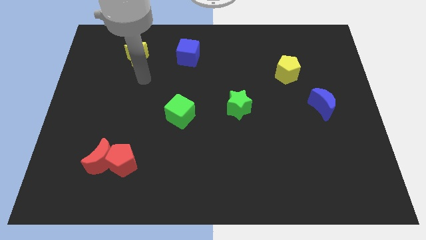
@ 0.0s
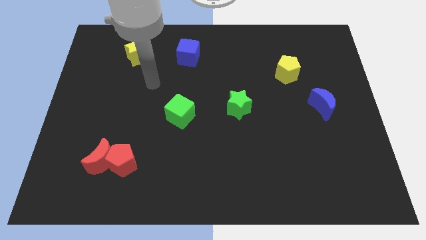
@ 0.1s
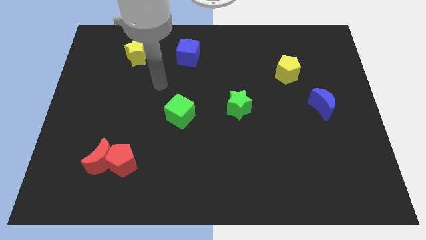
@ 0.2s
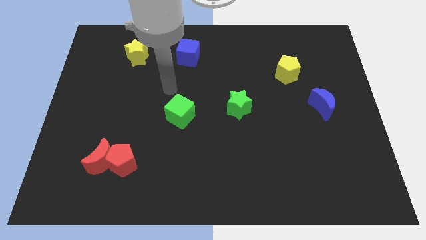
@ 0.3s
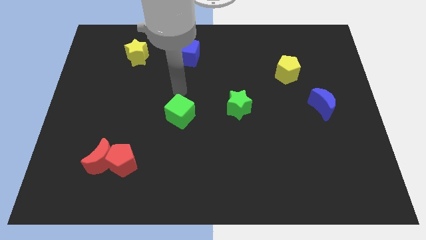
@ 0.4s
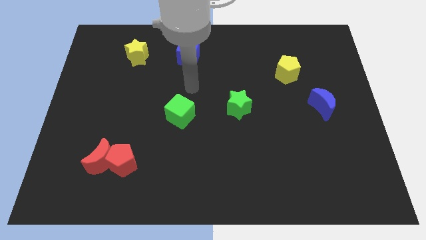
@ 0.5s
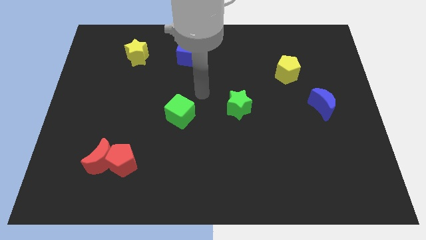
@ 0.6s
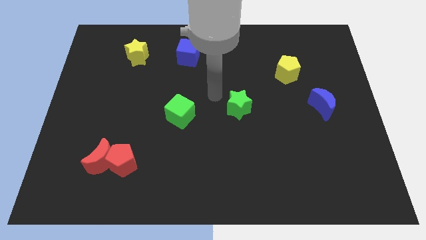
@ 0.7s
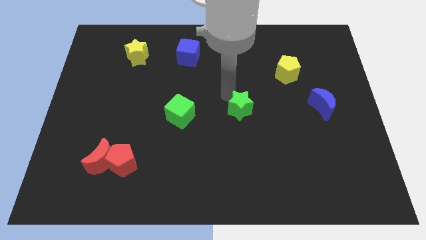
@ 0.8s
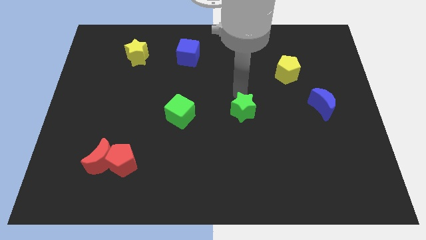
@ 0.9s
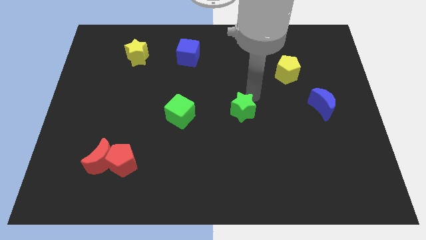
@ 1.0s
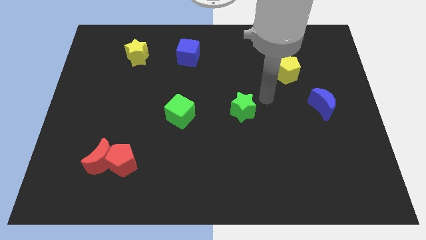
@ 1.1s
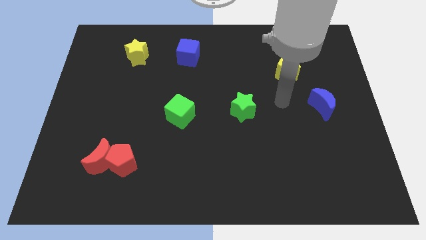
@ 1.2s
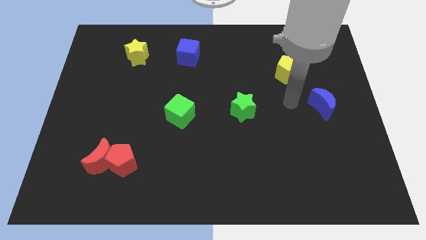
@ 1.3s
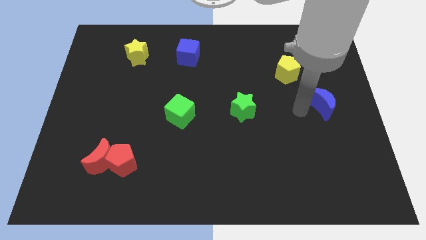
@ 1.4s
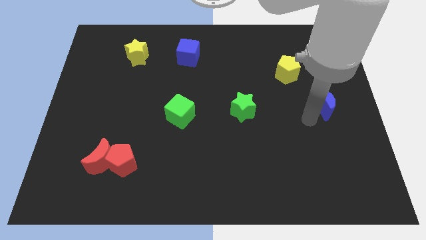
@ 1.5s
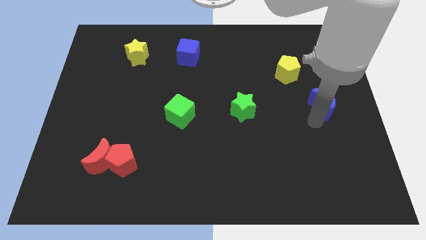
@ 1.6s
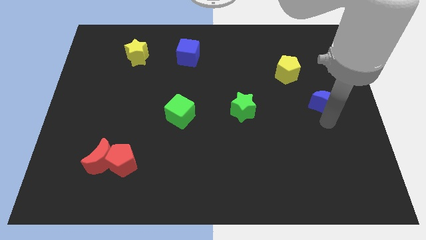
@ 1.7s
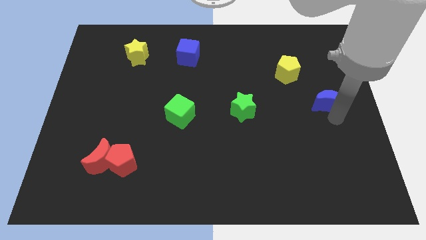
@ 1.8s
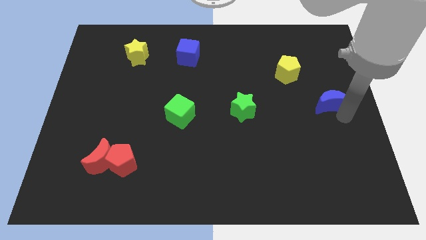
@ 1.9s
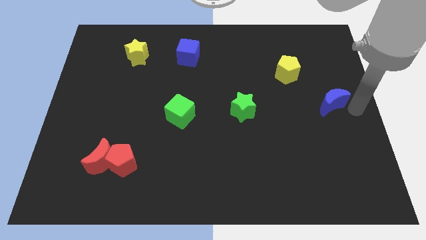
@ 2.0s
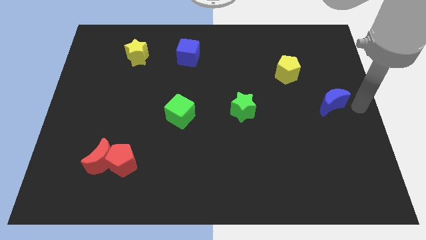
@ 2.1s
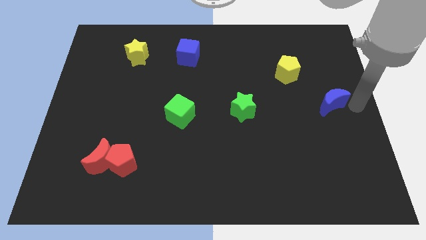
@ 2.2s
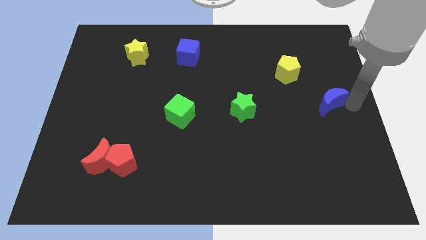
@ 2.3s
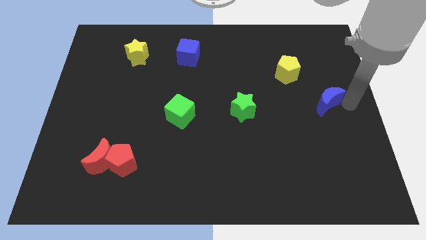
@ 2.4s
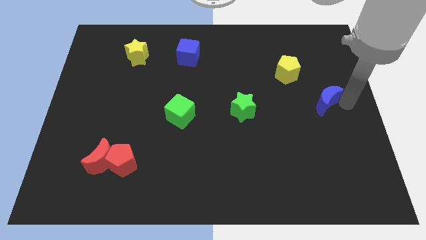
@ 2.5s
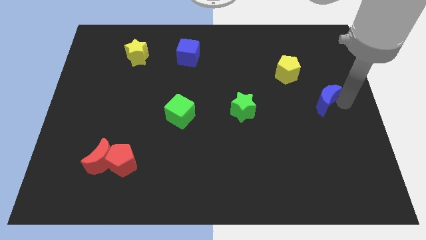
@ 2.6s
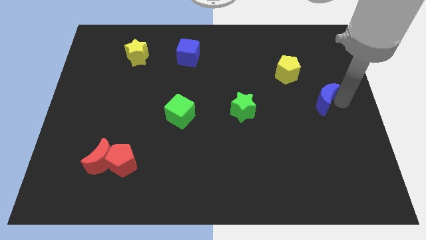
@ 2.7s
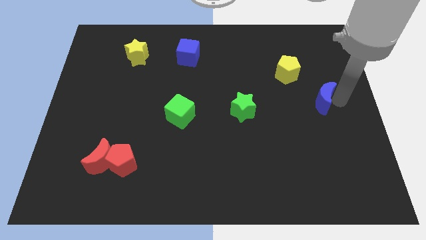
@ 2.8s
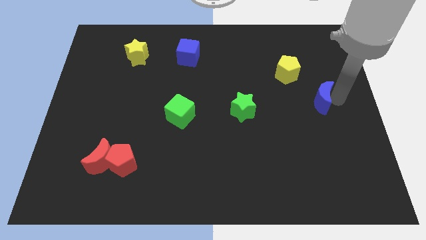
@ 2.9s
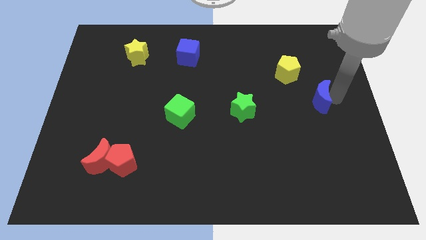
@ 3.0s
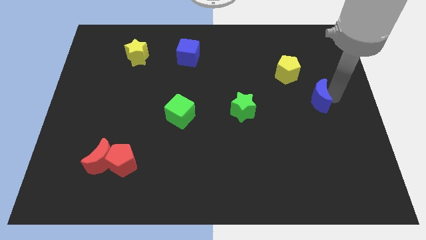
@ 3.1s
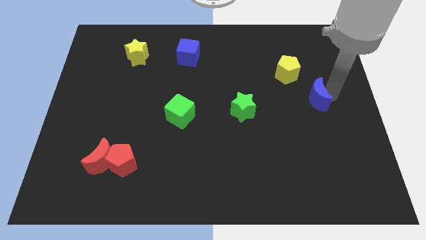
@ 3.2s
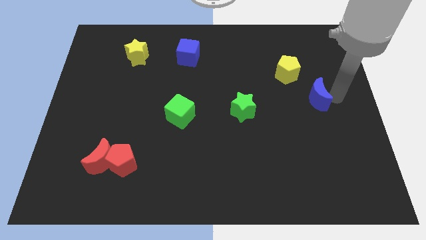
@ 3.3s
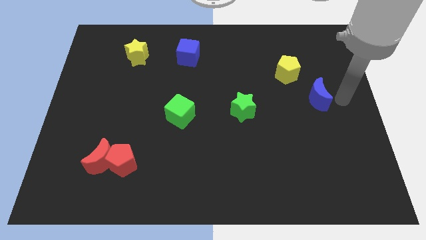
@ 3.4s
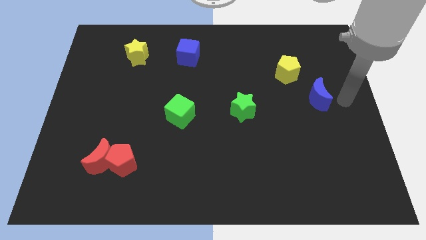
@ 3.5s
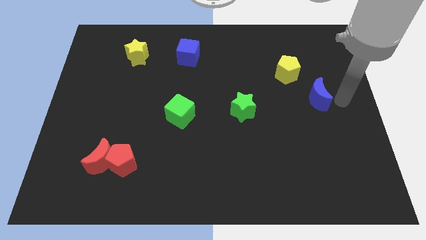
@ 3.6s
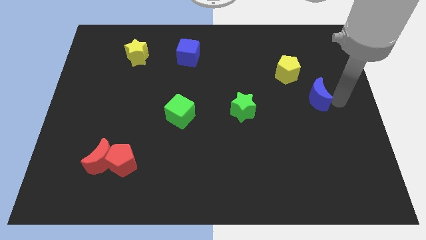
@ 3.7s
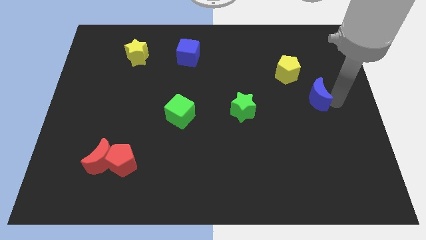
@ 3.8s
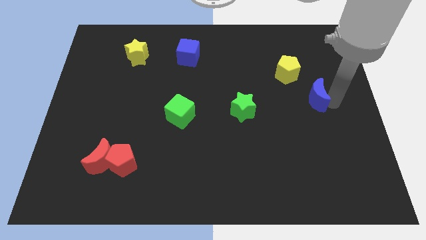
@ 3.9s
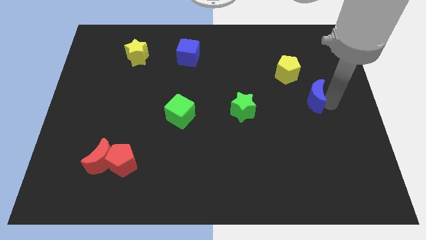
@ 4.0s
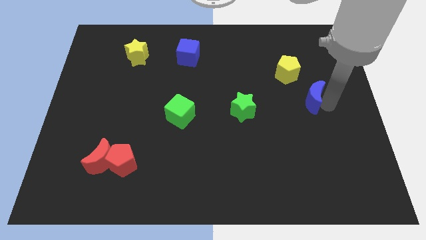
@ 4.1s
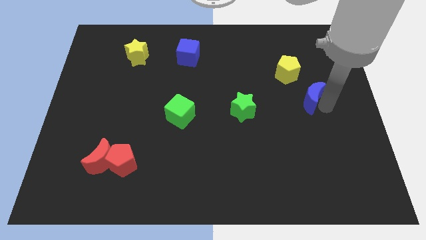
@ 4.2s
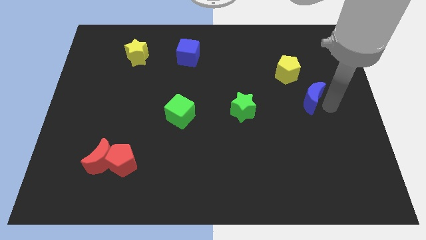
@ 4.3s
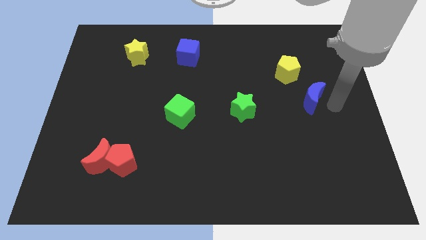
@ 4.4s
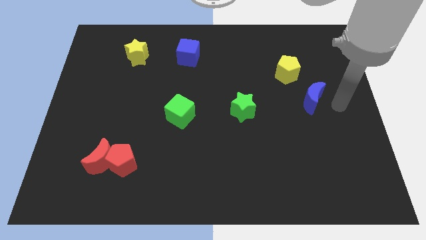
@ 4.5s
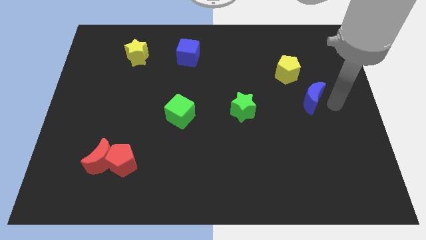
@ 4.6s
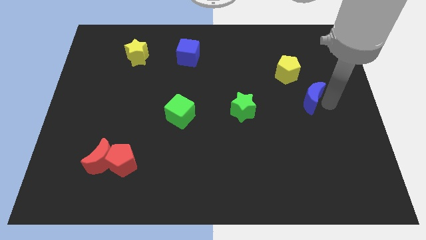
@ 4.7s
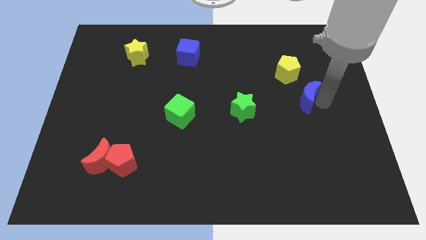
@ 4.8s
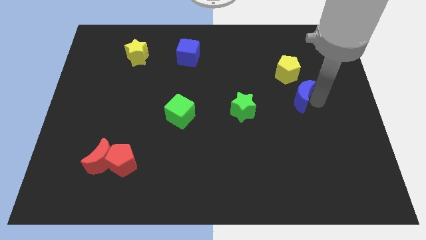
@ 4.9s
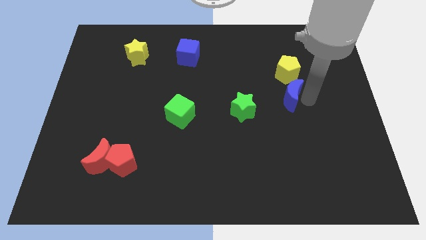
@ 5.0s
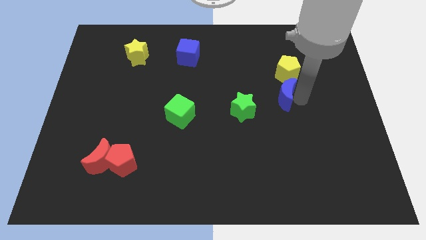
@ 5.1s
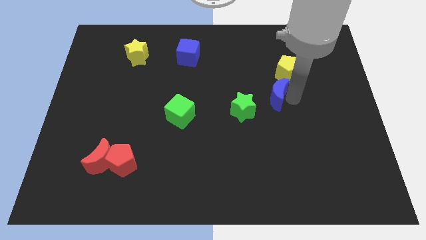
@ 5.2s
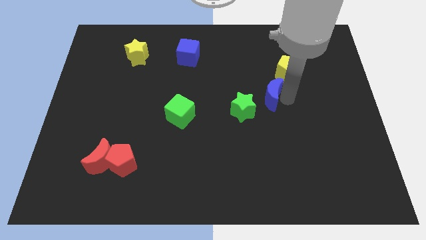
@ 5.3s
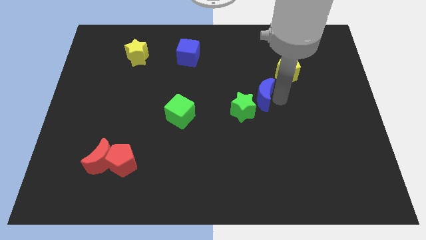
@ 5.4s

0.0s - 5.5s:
push the blue moon to the middle

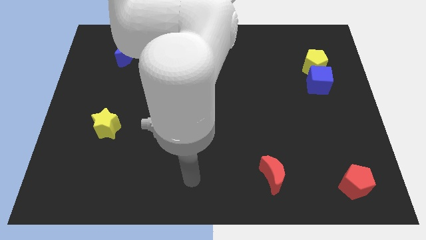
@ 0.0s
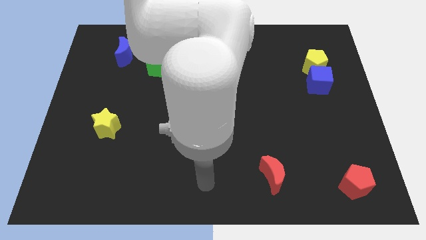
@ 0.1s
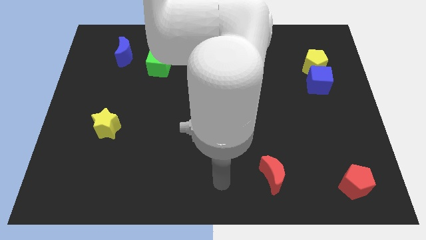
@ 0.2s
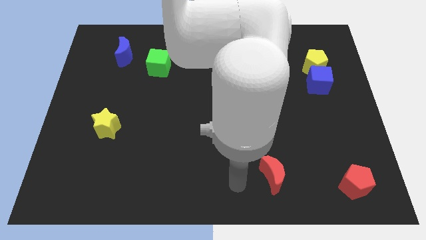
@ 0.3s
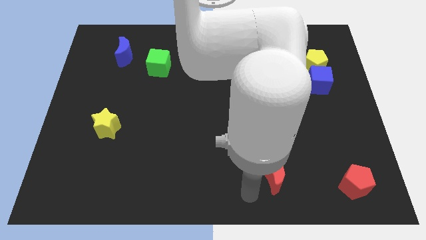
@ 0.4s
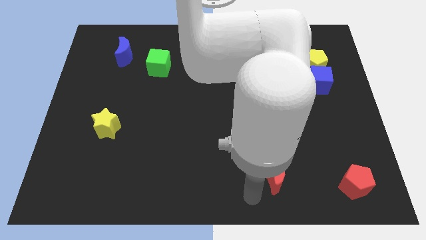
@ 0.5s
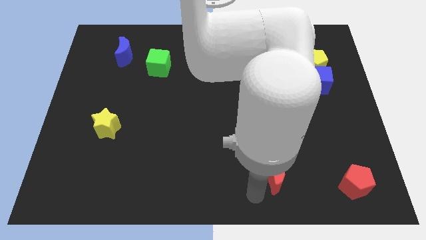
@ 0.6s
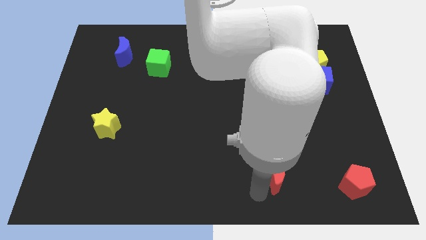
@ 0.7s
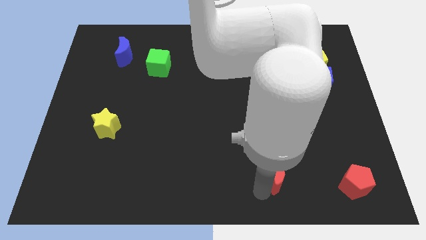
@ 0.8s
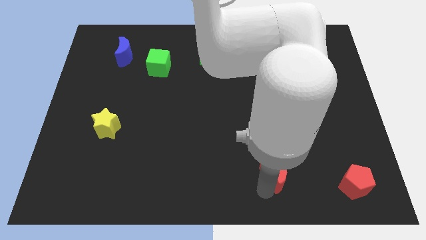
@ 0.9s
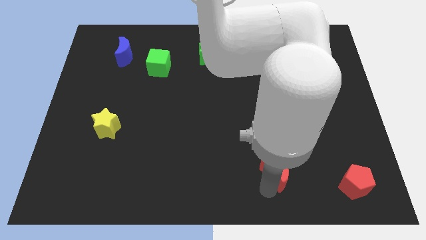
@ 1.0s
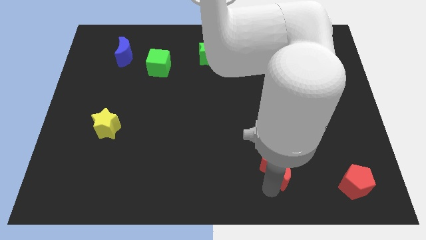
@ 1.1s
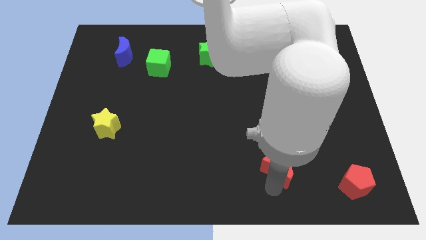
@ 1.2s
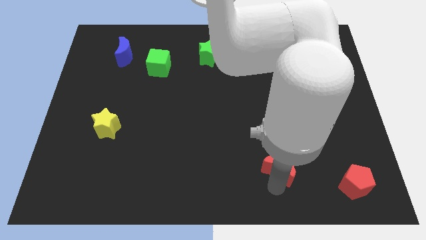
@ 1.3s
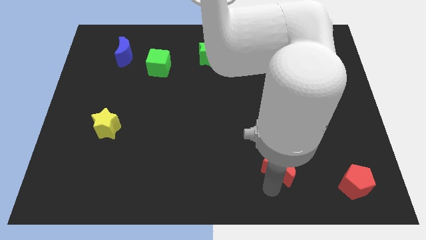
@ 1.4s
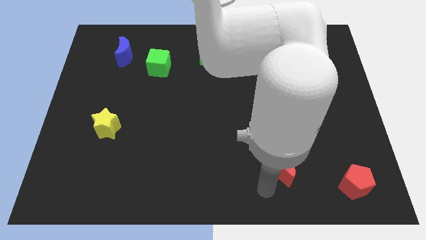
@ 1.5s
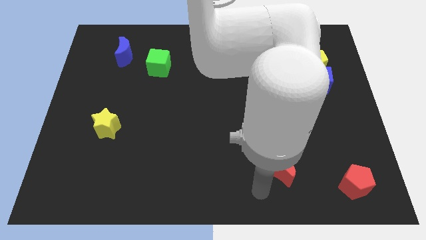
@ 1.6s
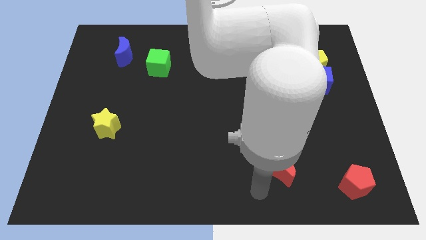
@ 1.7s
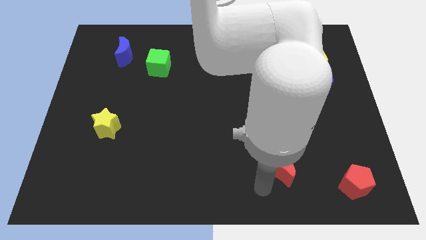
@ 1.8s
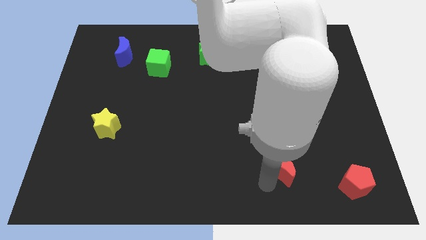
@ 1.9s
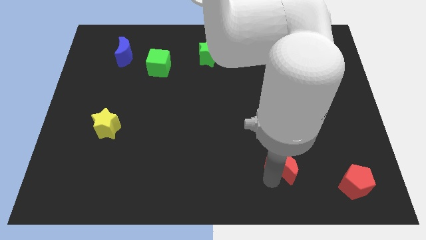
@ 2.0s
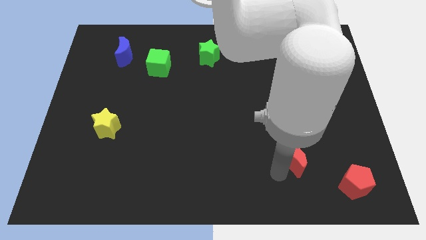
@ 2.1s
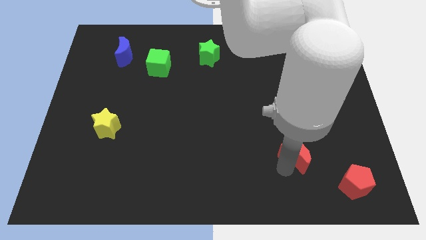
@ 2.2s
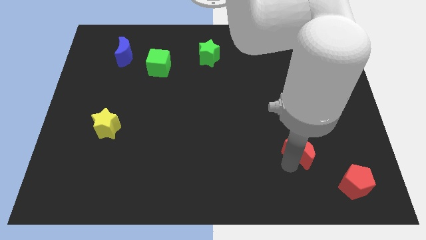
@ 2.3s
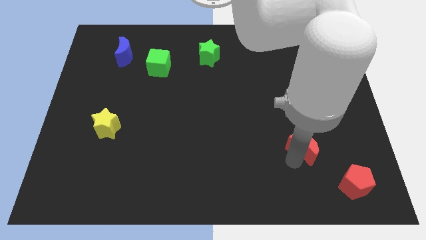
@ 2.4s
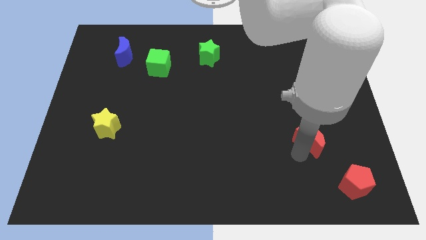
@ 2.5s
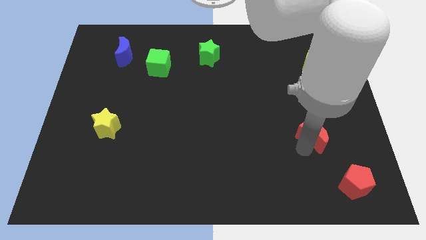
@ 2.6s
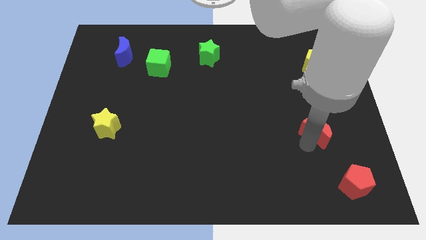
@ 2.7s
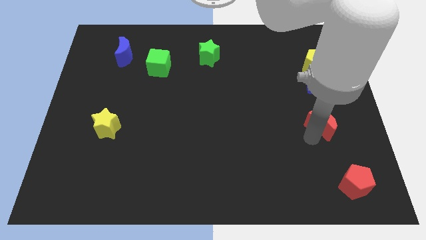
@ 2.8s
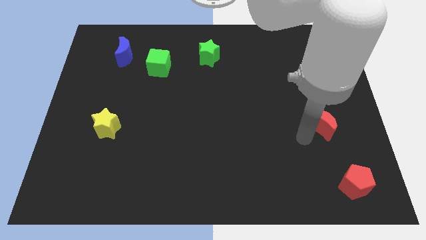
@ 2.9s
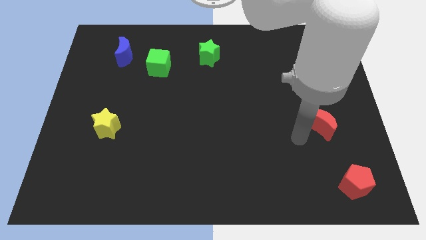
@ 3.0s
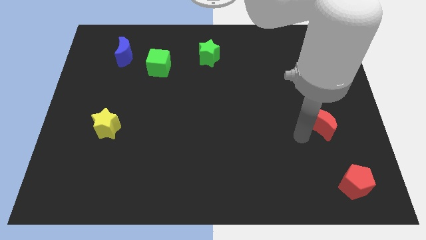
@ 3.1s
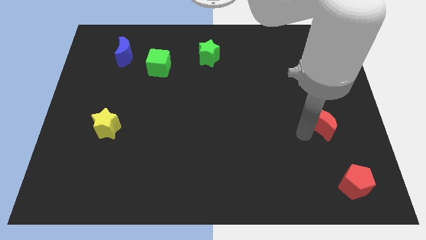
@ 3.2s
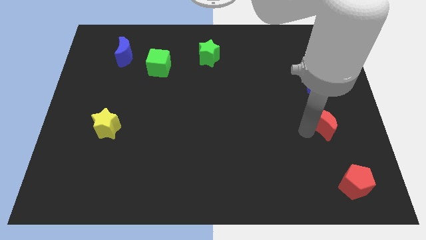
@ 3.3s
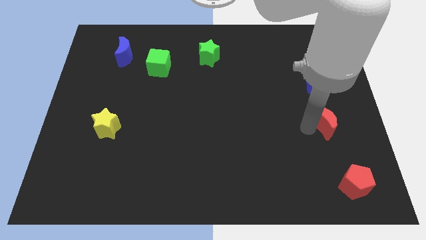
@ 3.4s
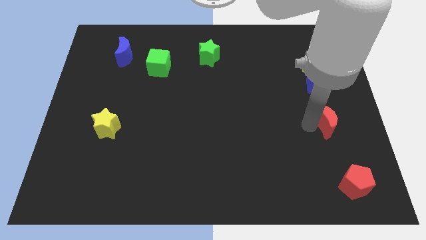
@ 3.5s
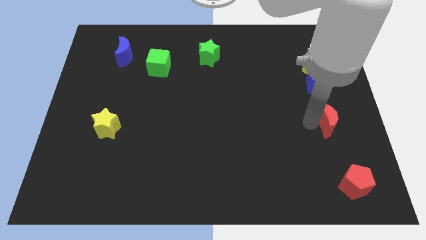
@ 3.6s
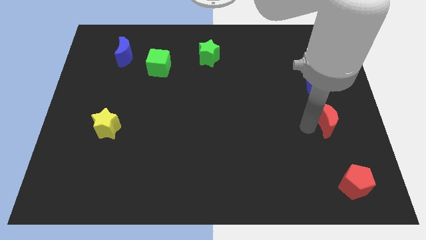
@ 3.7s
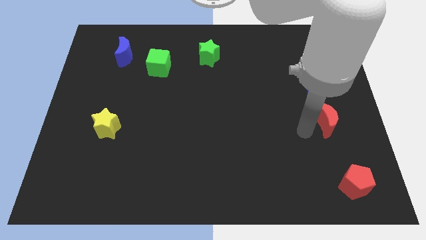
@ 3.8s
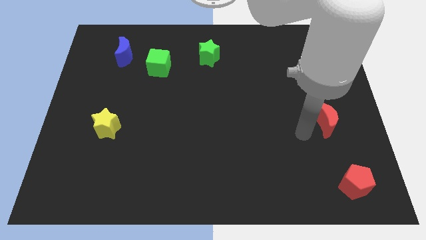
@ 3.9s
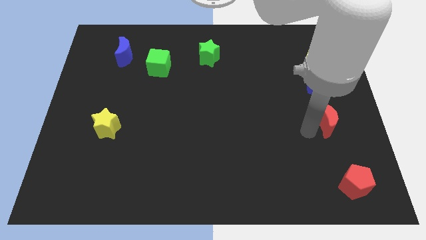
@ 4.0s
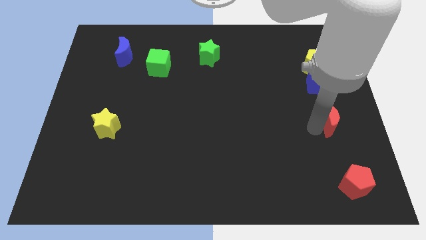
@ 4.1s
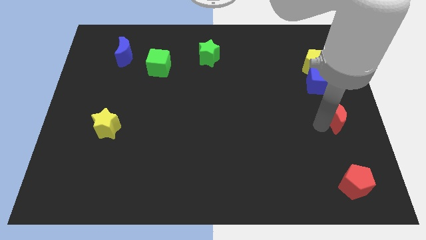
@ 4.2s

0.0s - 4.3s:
move the red moon to the right side
